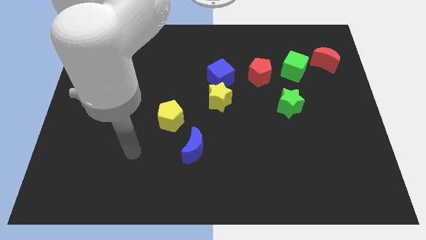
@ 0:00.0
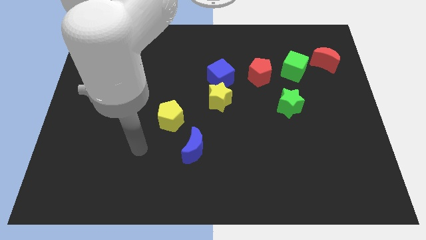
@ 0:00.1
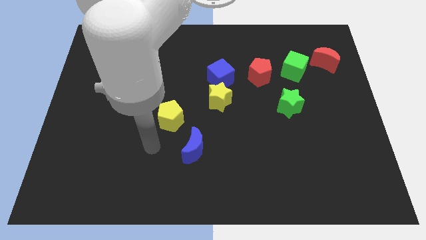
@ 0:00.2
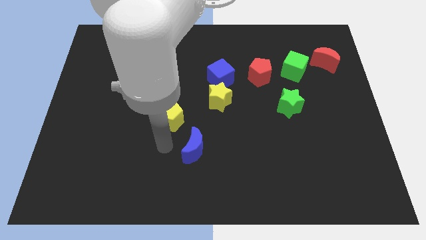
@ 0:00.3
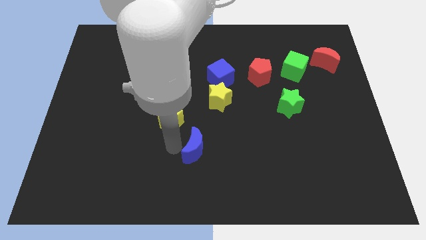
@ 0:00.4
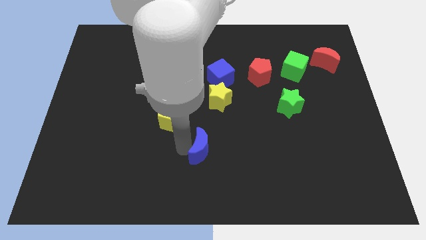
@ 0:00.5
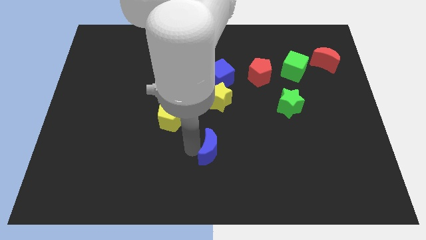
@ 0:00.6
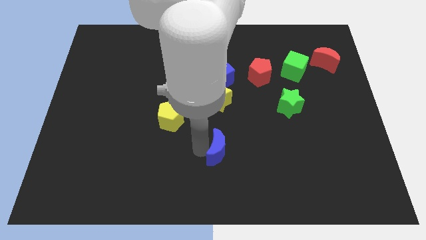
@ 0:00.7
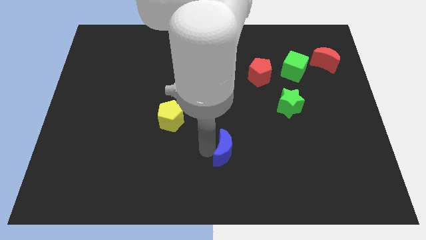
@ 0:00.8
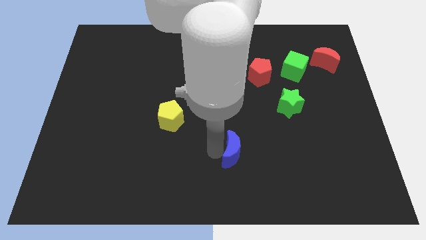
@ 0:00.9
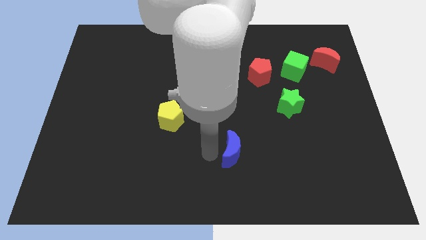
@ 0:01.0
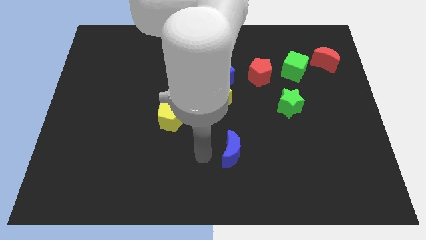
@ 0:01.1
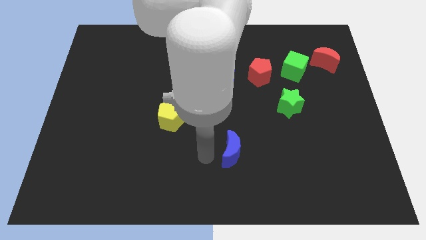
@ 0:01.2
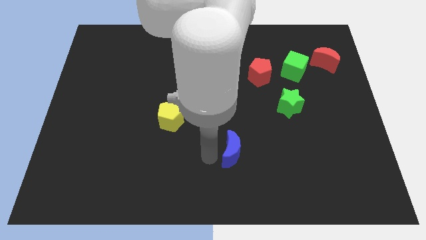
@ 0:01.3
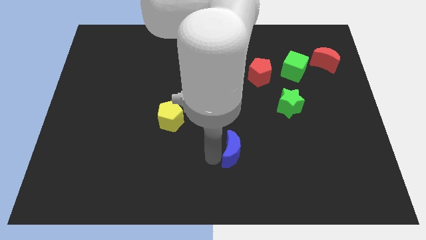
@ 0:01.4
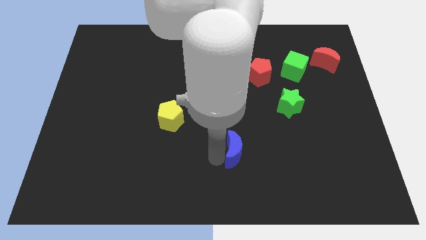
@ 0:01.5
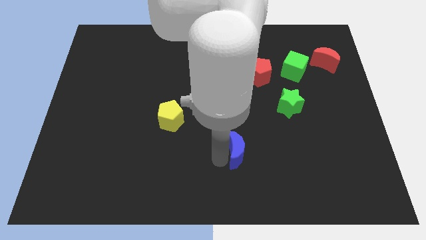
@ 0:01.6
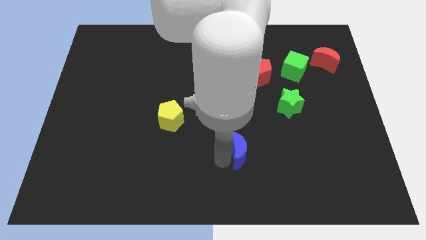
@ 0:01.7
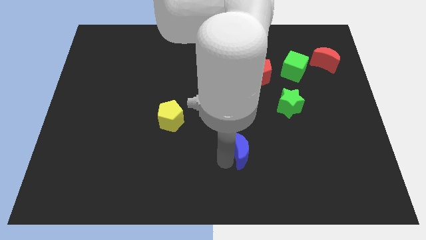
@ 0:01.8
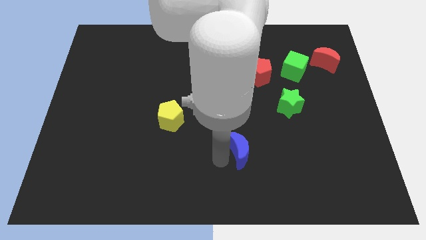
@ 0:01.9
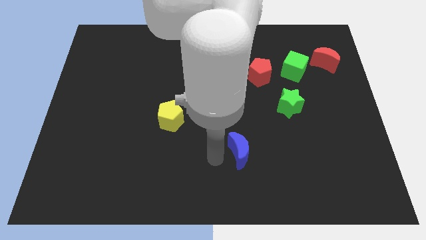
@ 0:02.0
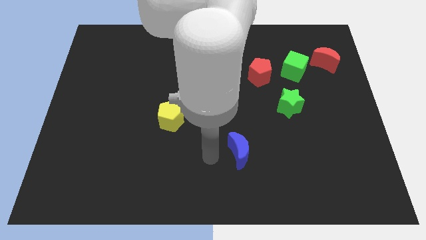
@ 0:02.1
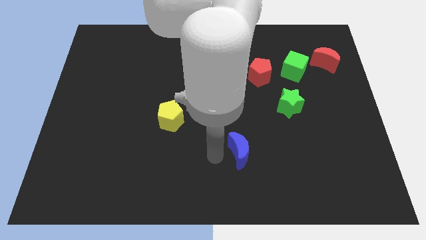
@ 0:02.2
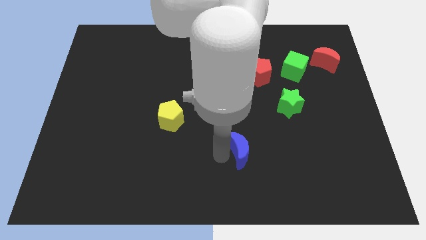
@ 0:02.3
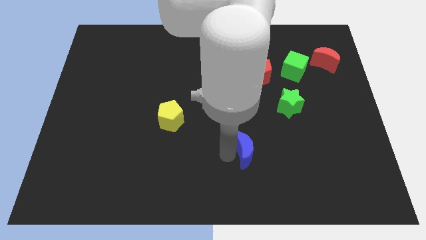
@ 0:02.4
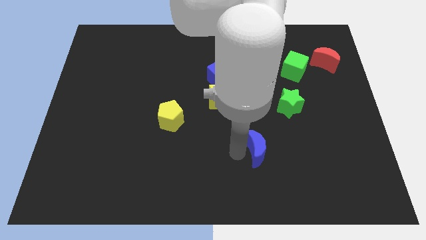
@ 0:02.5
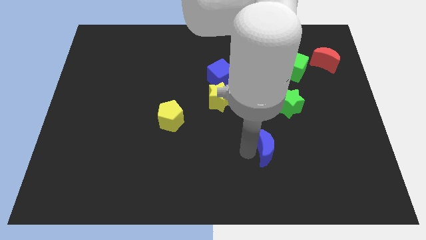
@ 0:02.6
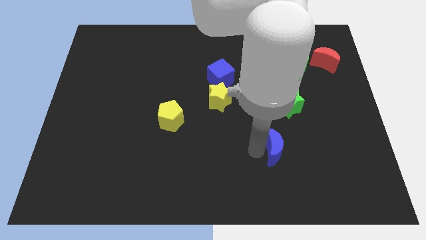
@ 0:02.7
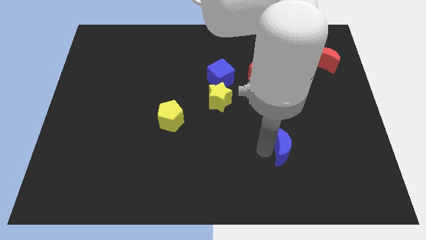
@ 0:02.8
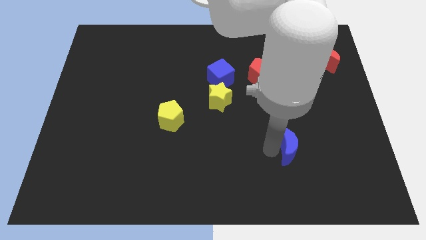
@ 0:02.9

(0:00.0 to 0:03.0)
push the blue moon to the right

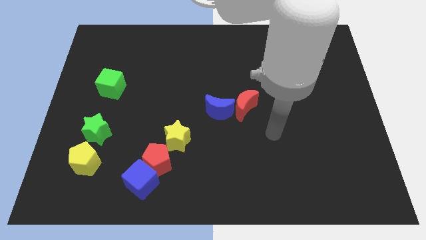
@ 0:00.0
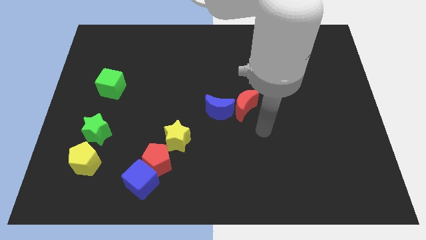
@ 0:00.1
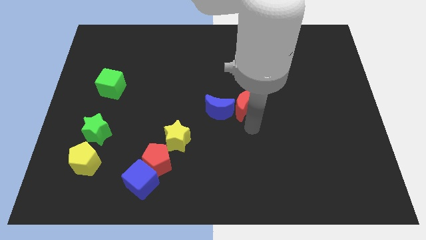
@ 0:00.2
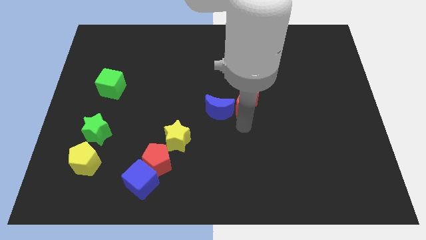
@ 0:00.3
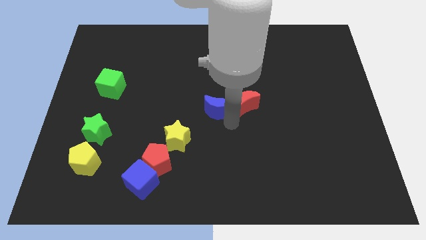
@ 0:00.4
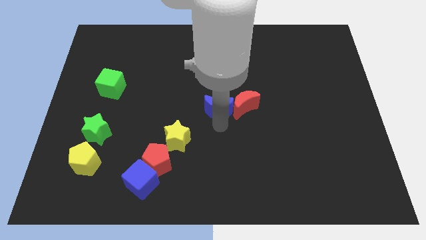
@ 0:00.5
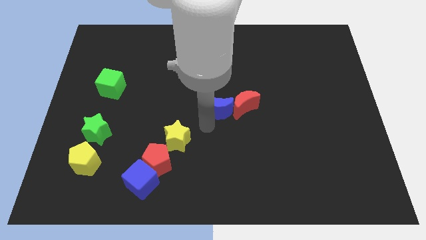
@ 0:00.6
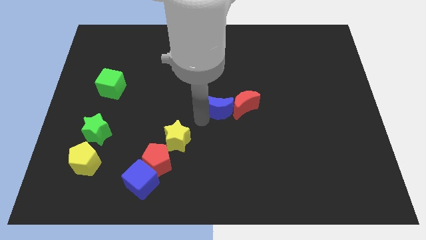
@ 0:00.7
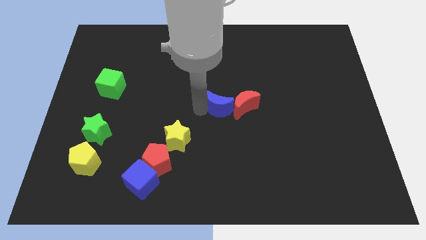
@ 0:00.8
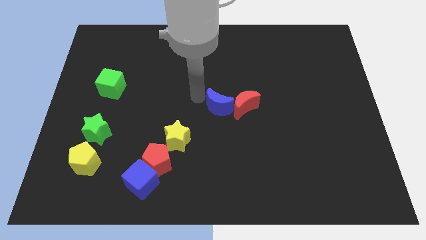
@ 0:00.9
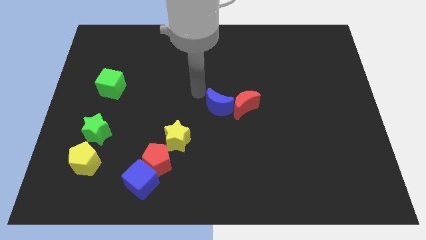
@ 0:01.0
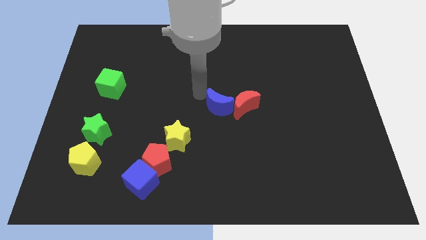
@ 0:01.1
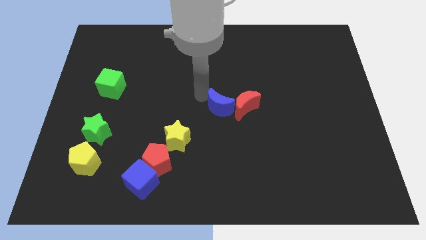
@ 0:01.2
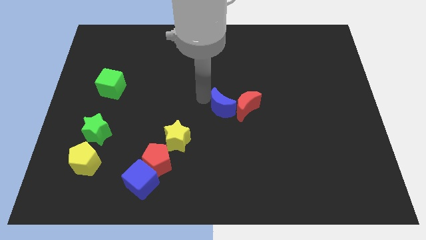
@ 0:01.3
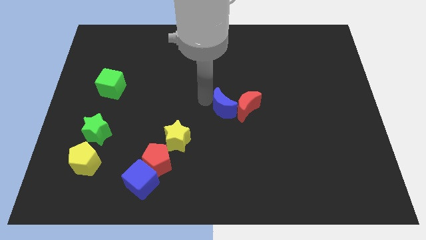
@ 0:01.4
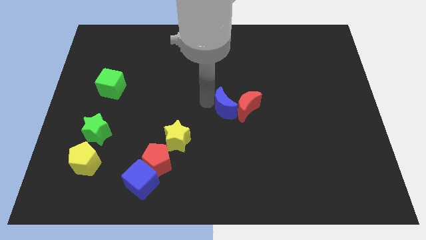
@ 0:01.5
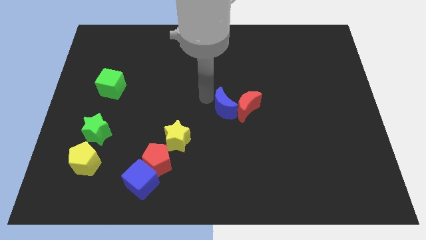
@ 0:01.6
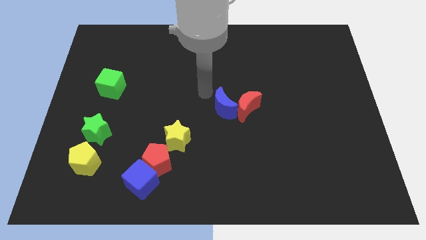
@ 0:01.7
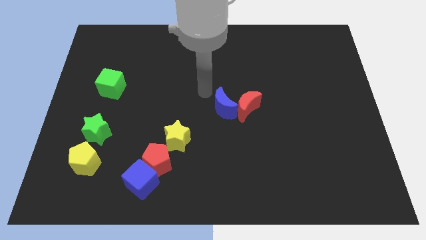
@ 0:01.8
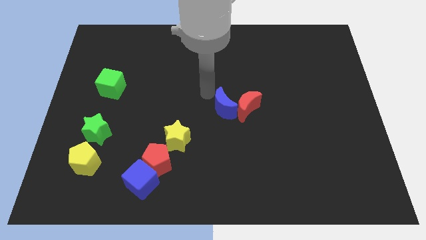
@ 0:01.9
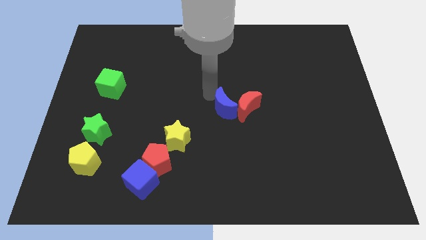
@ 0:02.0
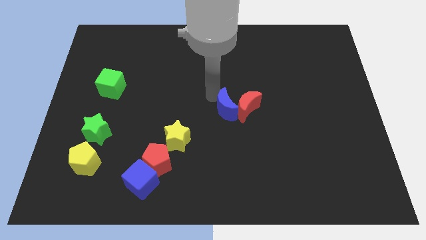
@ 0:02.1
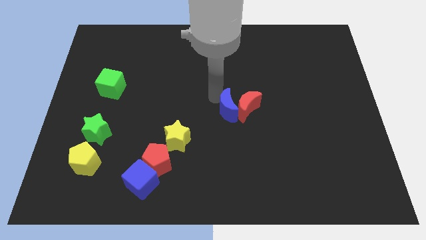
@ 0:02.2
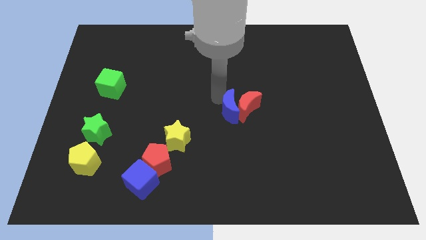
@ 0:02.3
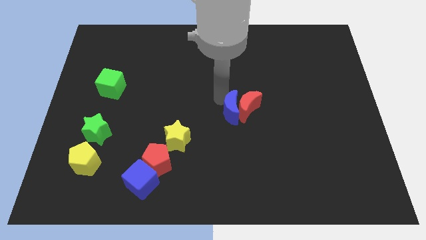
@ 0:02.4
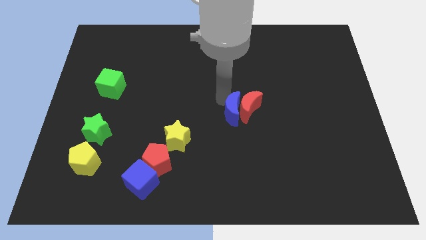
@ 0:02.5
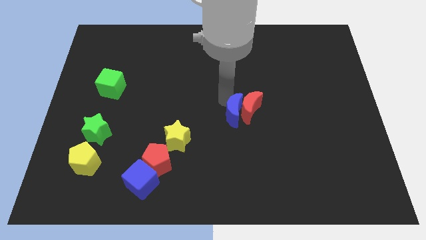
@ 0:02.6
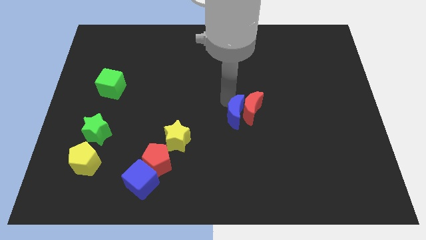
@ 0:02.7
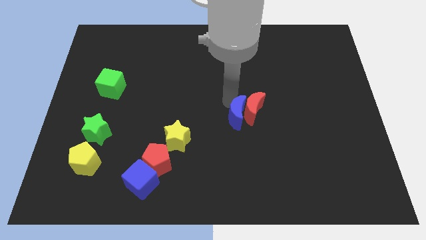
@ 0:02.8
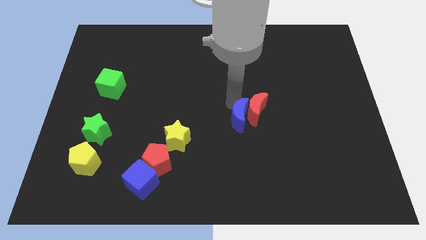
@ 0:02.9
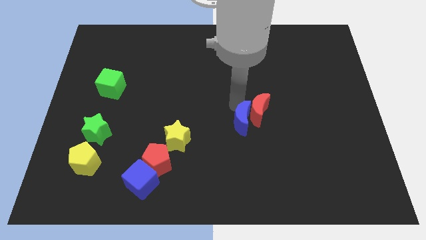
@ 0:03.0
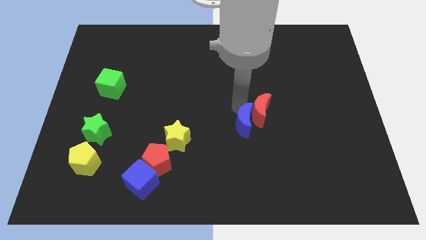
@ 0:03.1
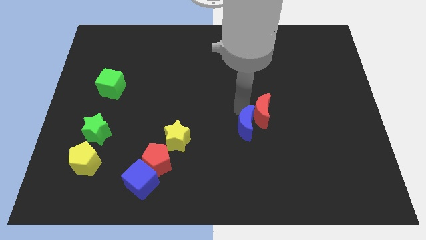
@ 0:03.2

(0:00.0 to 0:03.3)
push the blue moon diagonally down and right somewhat

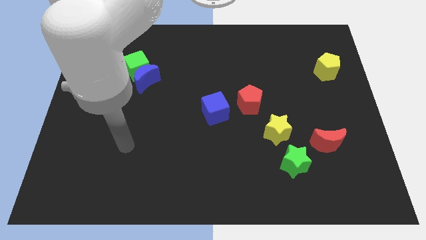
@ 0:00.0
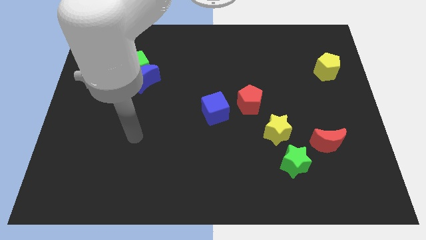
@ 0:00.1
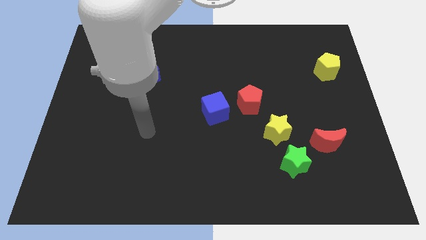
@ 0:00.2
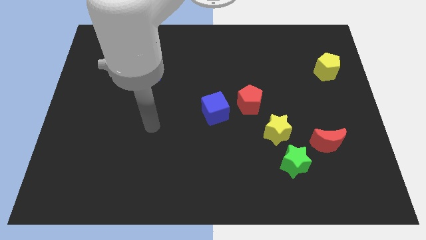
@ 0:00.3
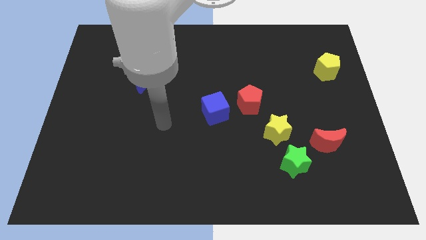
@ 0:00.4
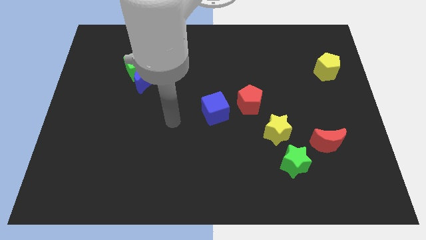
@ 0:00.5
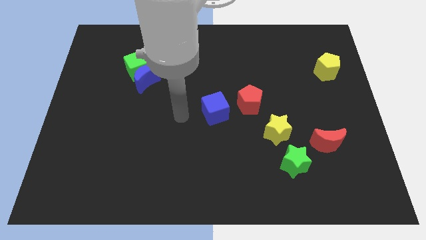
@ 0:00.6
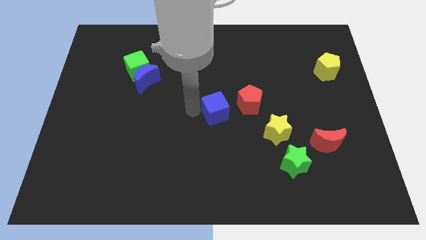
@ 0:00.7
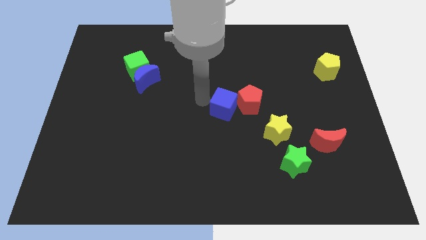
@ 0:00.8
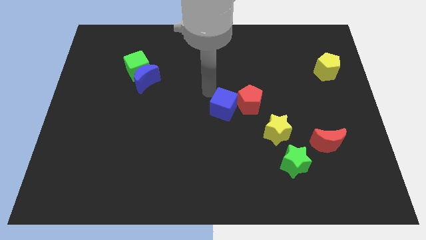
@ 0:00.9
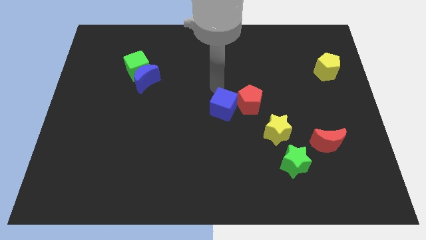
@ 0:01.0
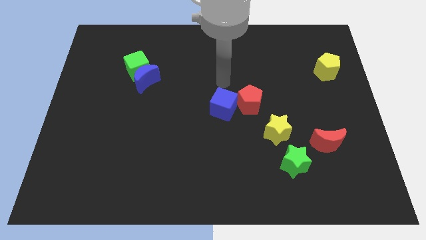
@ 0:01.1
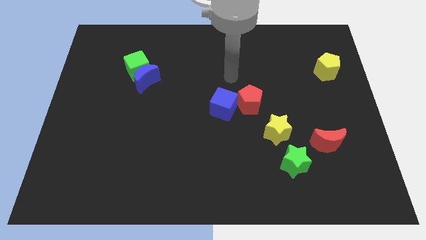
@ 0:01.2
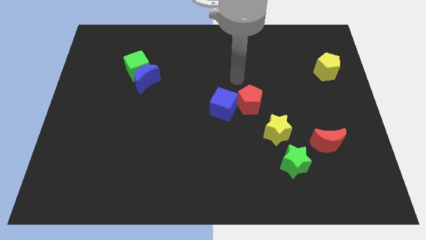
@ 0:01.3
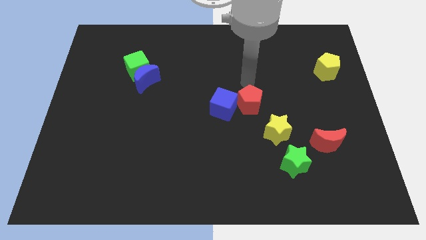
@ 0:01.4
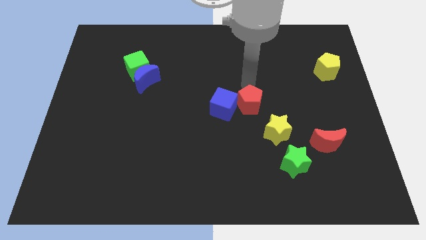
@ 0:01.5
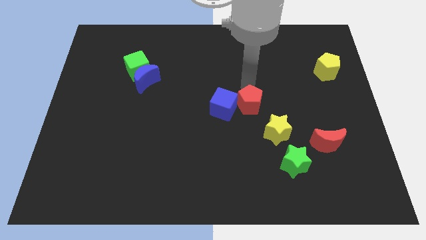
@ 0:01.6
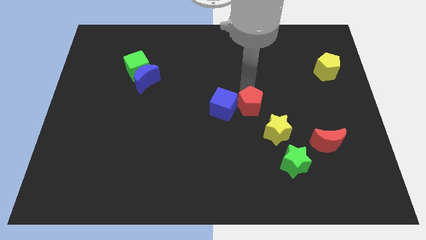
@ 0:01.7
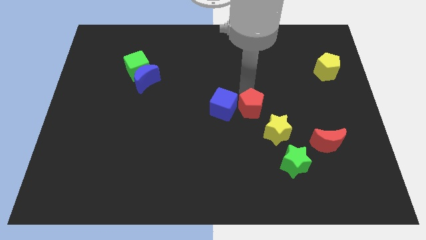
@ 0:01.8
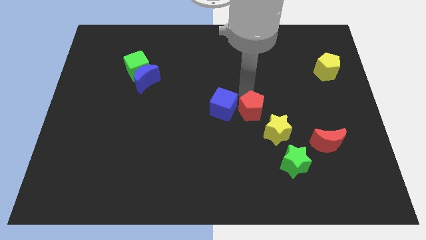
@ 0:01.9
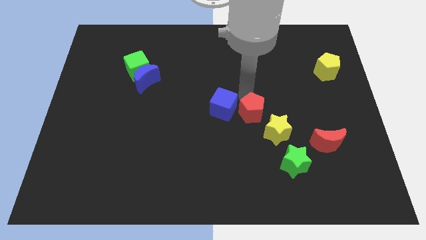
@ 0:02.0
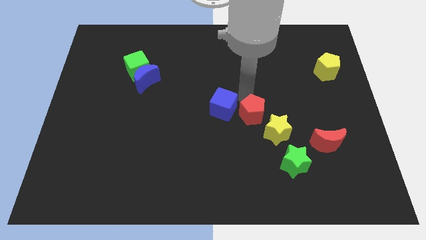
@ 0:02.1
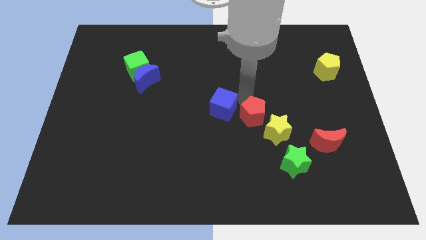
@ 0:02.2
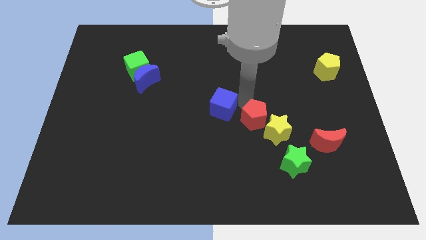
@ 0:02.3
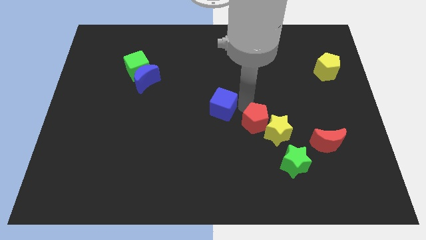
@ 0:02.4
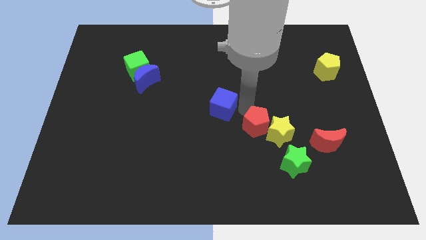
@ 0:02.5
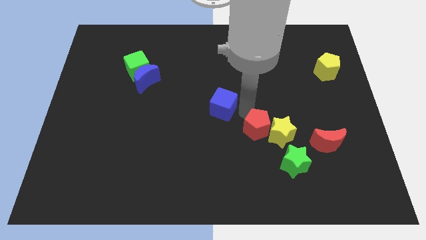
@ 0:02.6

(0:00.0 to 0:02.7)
slightly move the red pentagon down
